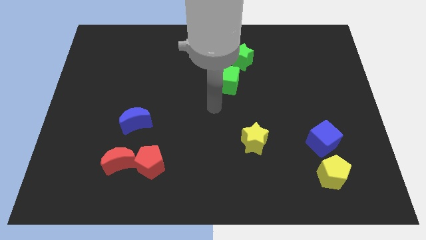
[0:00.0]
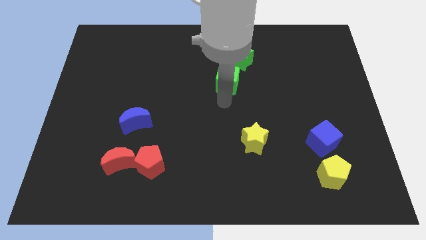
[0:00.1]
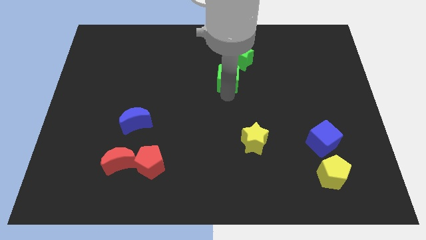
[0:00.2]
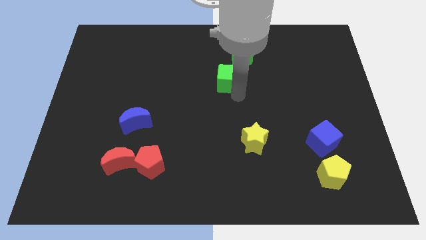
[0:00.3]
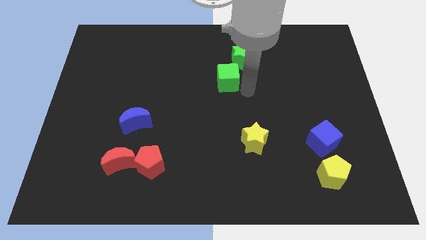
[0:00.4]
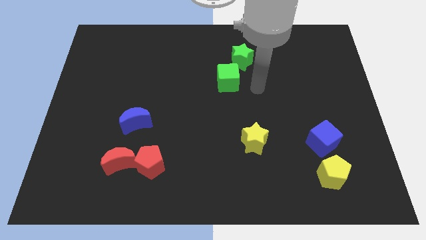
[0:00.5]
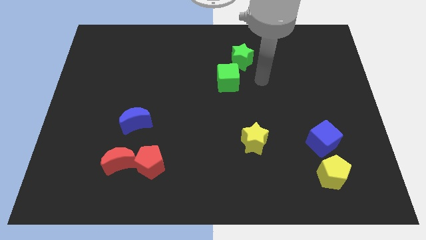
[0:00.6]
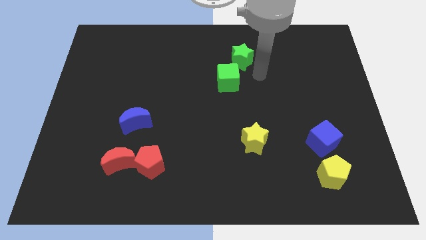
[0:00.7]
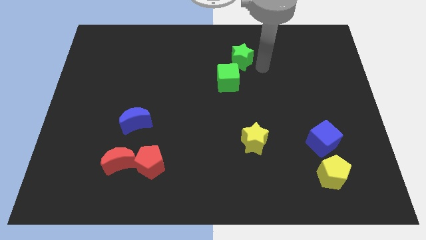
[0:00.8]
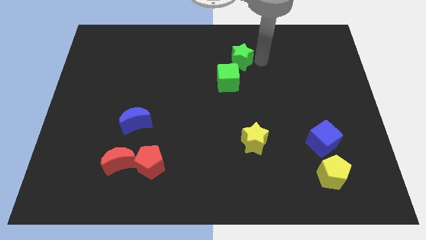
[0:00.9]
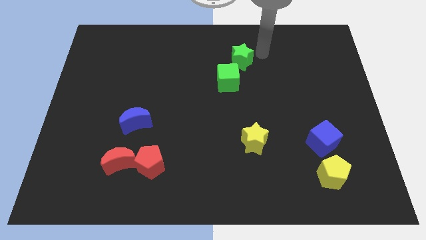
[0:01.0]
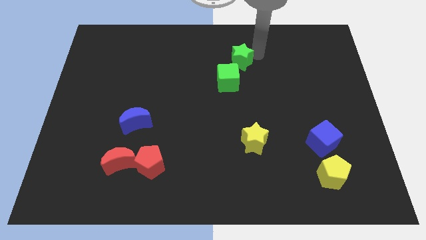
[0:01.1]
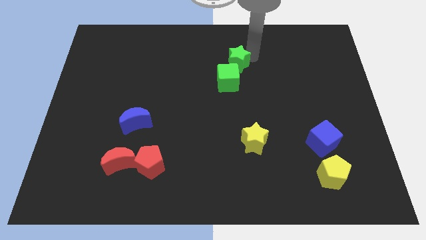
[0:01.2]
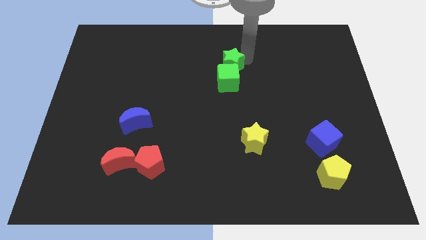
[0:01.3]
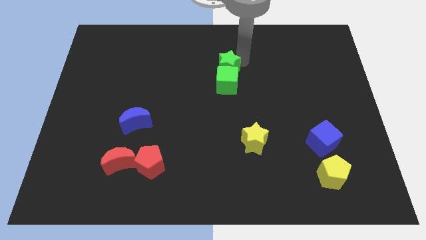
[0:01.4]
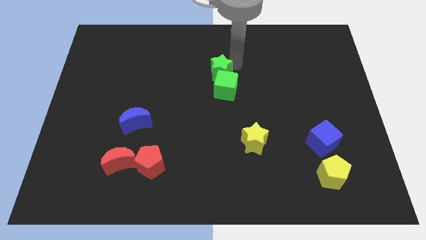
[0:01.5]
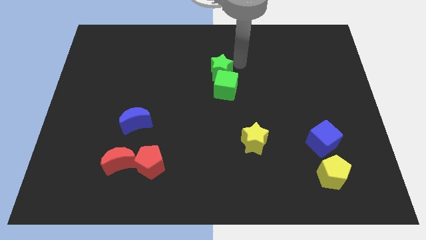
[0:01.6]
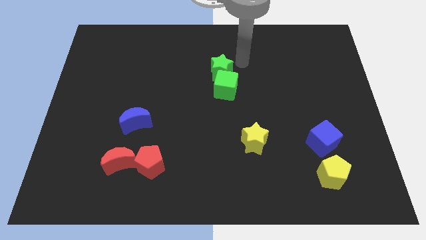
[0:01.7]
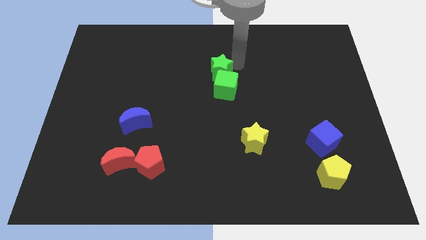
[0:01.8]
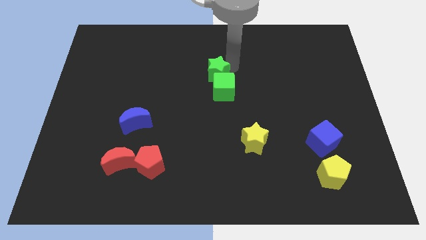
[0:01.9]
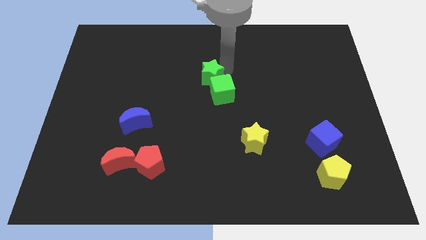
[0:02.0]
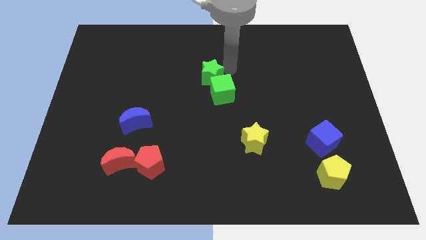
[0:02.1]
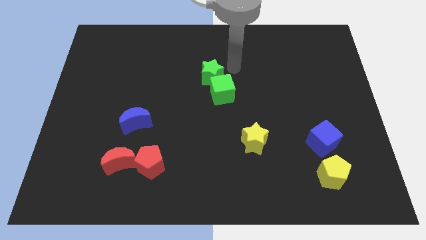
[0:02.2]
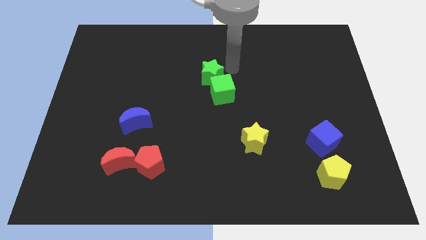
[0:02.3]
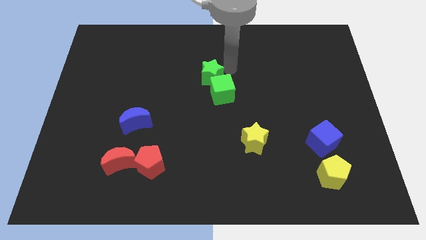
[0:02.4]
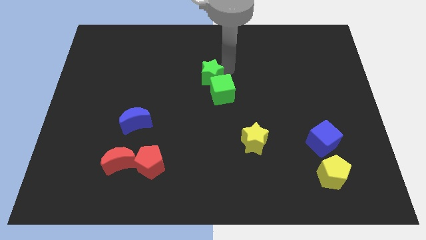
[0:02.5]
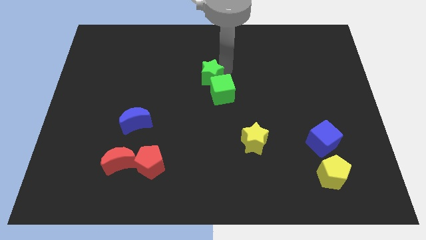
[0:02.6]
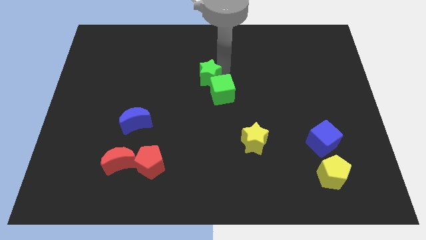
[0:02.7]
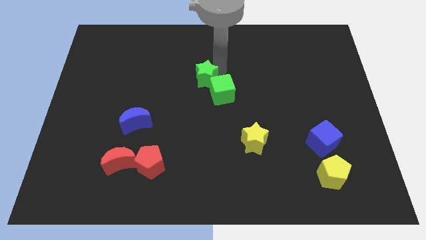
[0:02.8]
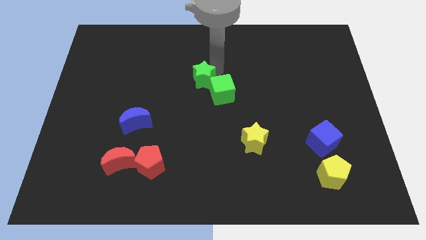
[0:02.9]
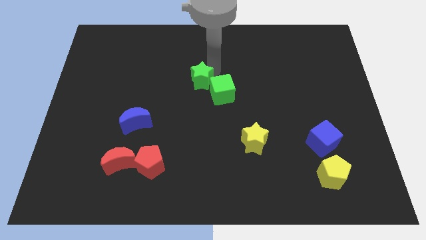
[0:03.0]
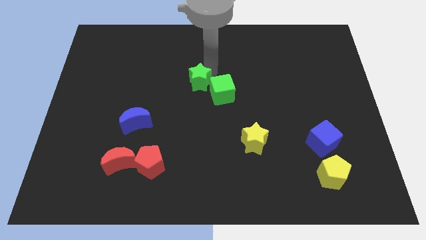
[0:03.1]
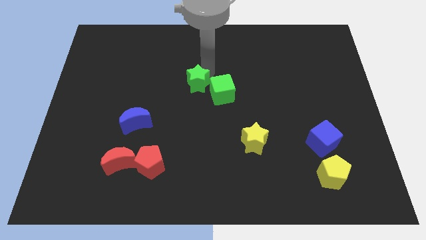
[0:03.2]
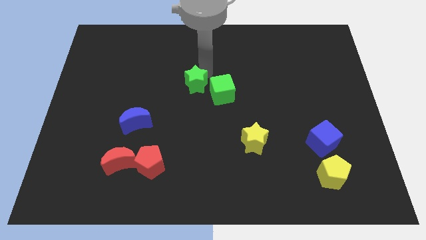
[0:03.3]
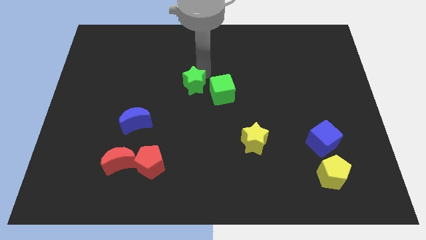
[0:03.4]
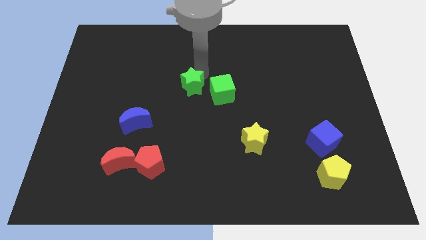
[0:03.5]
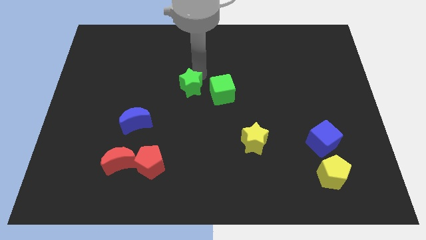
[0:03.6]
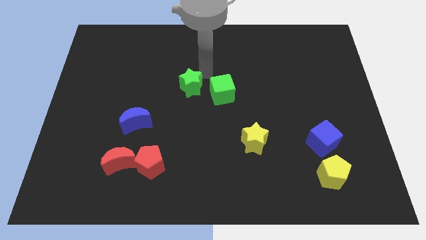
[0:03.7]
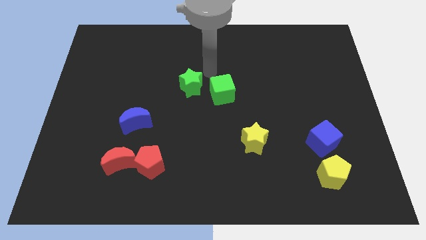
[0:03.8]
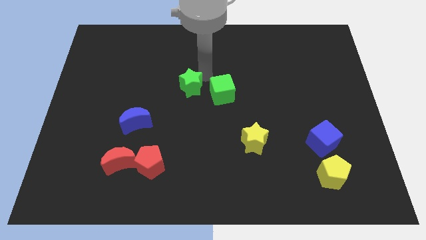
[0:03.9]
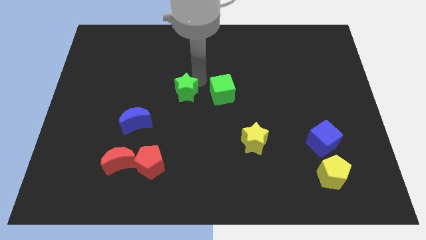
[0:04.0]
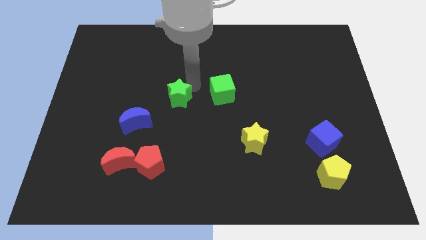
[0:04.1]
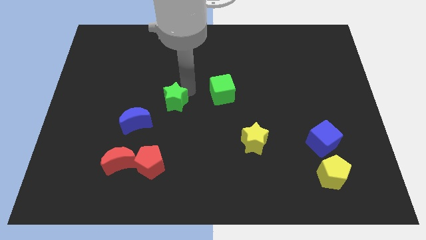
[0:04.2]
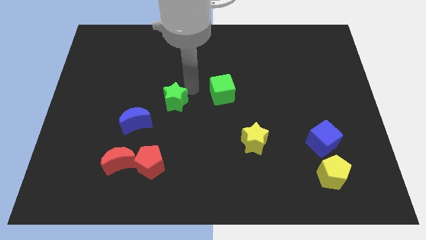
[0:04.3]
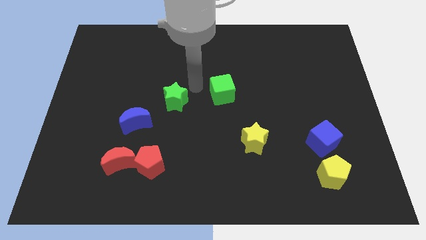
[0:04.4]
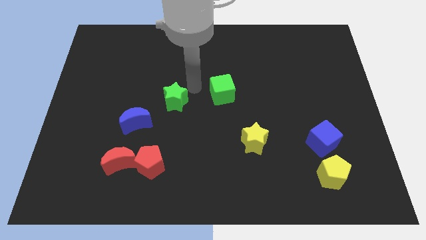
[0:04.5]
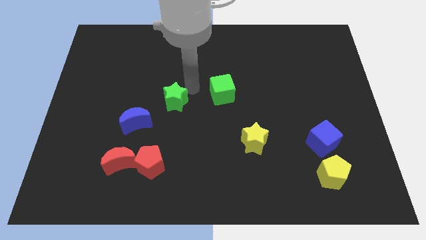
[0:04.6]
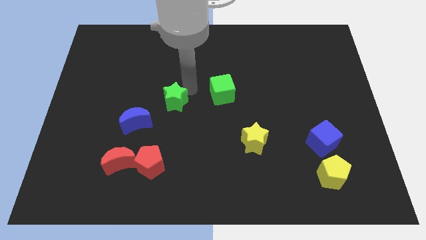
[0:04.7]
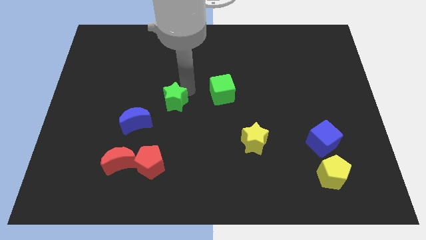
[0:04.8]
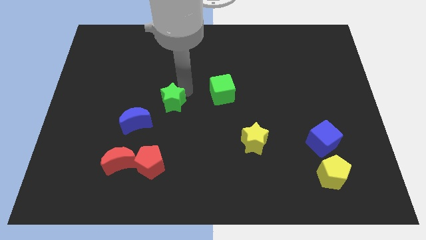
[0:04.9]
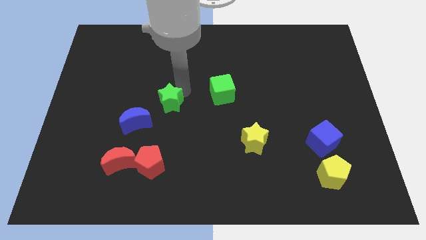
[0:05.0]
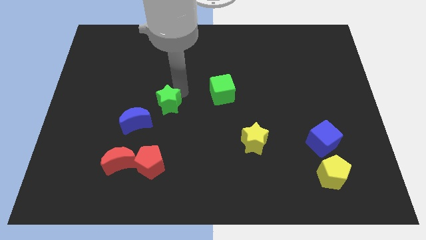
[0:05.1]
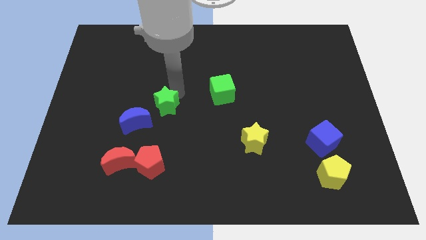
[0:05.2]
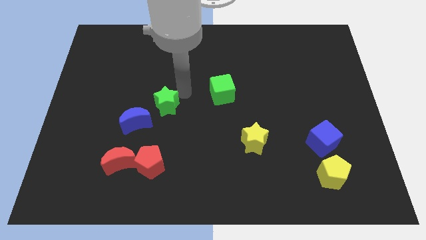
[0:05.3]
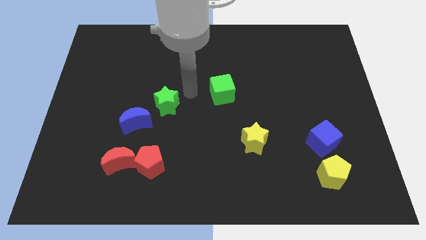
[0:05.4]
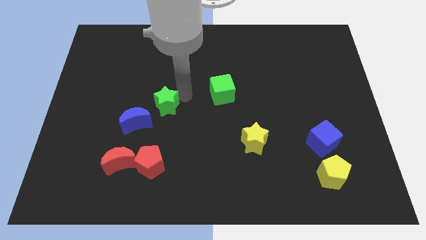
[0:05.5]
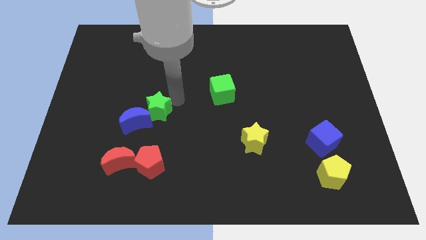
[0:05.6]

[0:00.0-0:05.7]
put the green star next to the blue moon

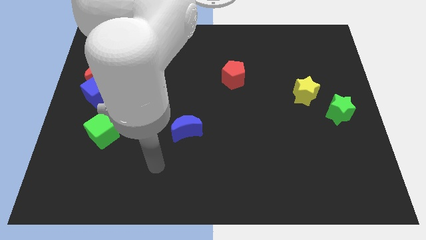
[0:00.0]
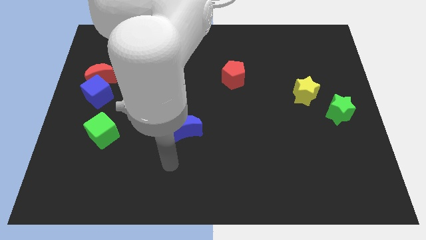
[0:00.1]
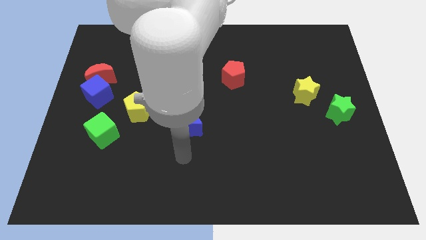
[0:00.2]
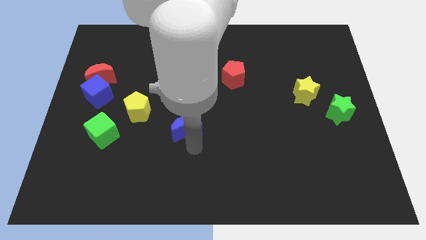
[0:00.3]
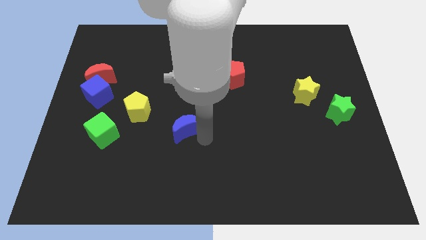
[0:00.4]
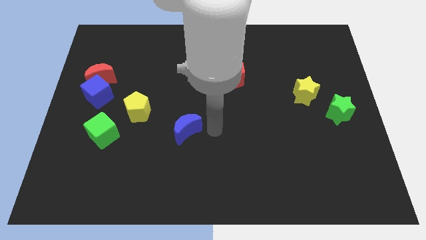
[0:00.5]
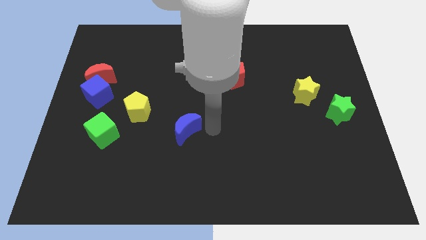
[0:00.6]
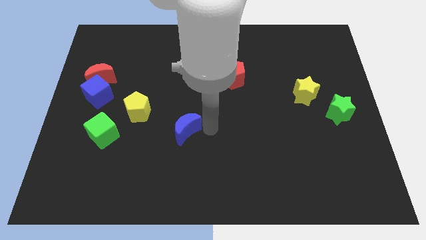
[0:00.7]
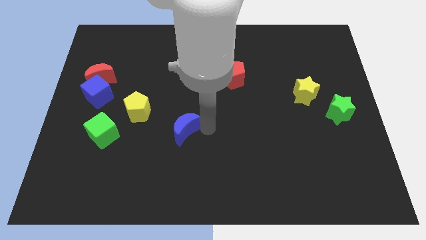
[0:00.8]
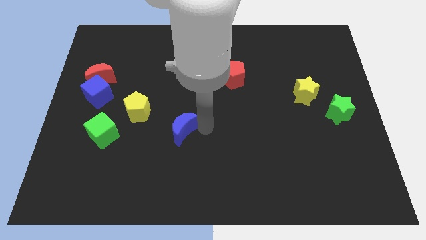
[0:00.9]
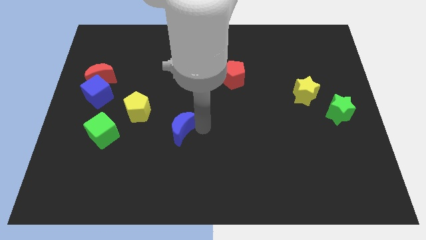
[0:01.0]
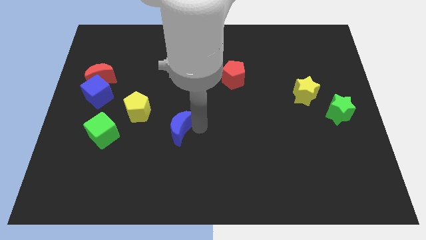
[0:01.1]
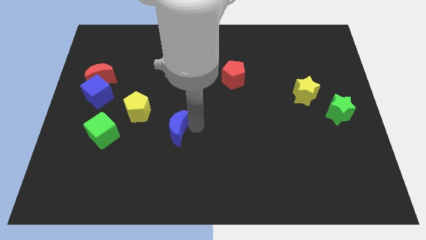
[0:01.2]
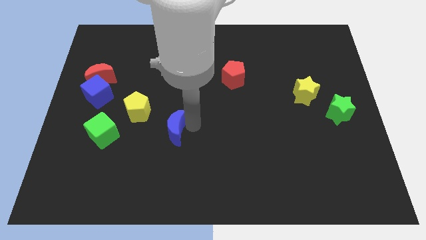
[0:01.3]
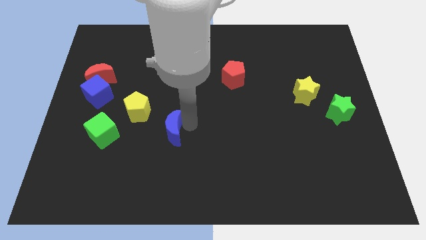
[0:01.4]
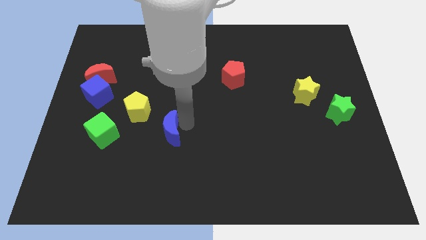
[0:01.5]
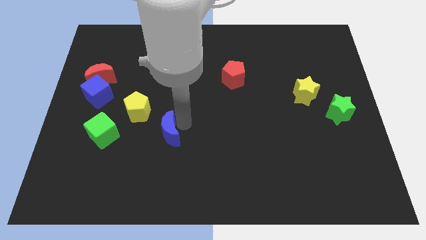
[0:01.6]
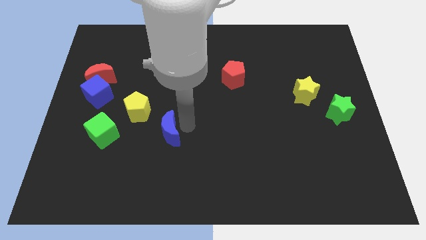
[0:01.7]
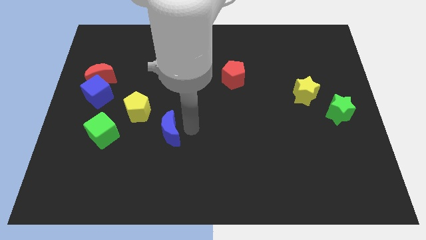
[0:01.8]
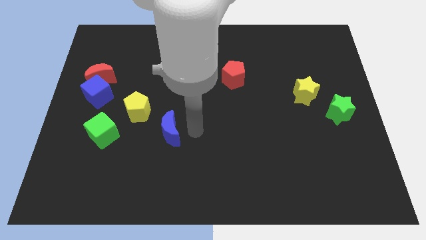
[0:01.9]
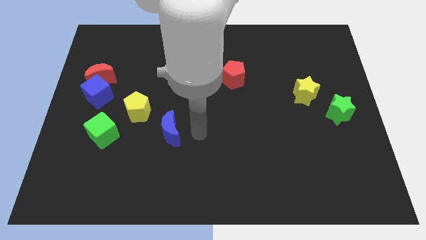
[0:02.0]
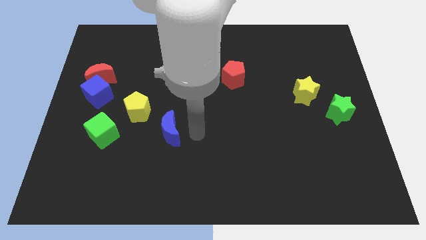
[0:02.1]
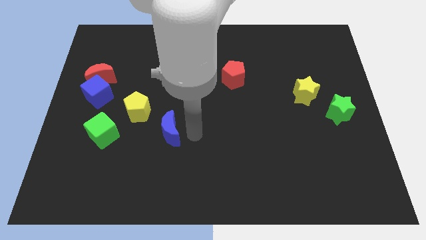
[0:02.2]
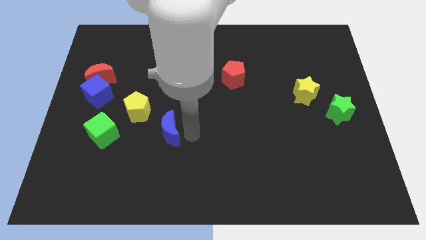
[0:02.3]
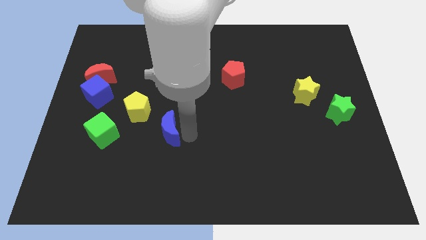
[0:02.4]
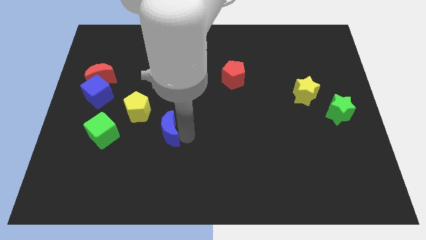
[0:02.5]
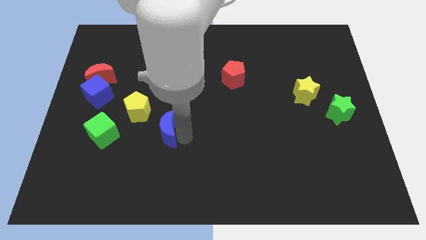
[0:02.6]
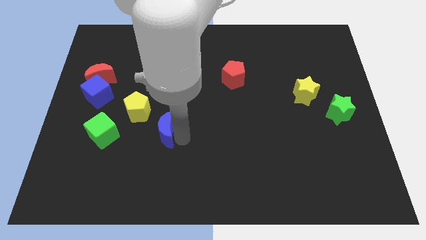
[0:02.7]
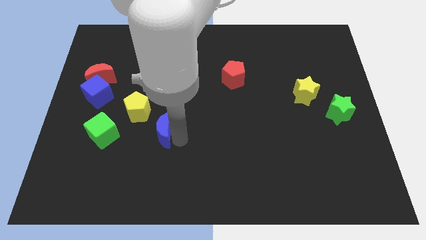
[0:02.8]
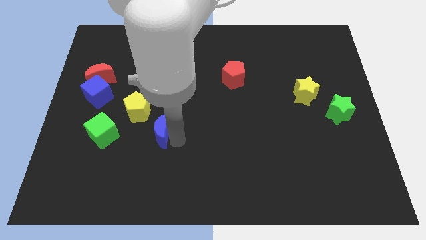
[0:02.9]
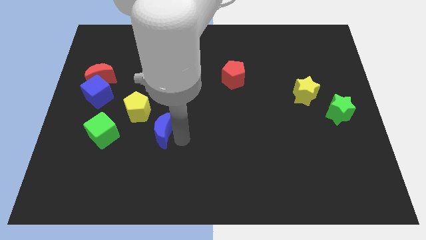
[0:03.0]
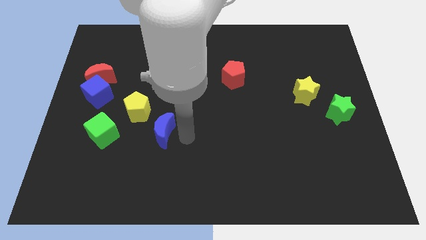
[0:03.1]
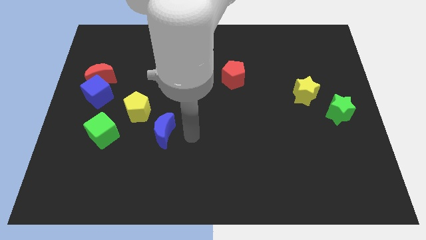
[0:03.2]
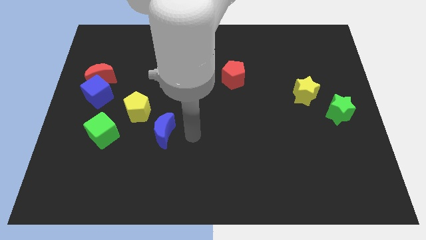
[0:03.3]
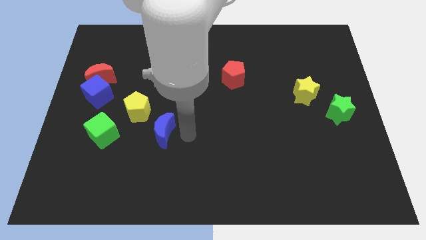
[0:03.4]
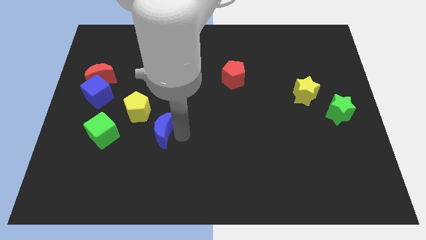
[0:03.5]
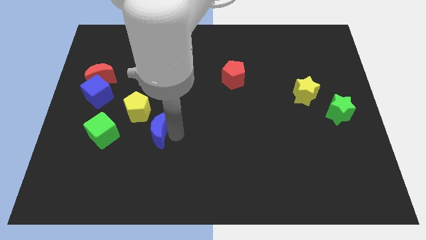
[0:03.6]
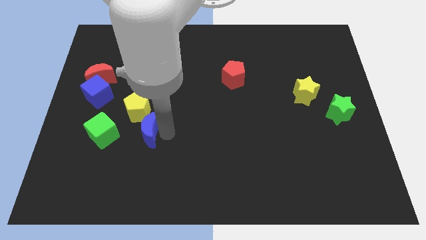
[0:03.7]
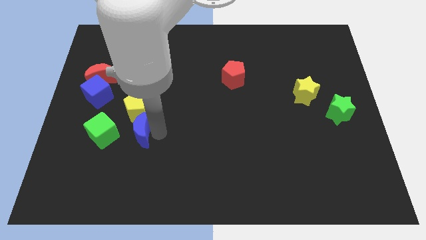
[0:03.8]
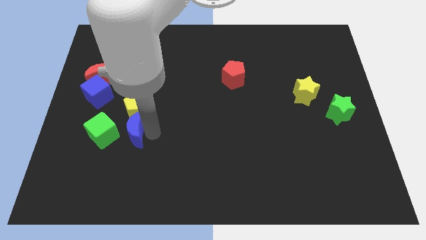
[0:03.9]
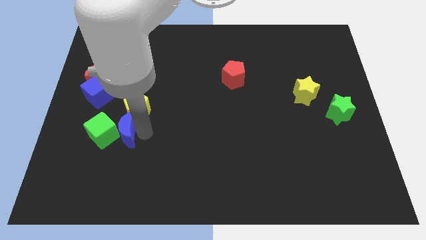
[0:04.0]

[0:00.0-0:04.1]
slide the blue moon close to the green cube
